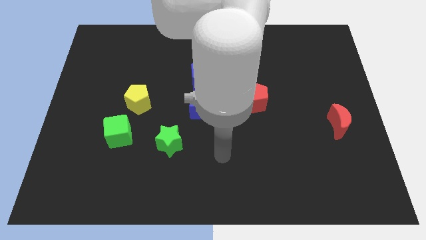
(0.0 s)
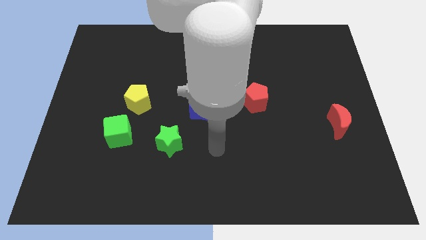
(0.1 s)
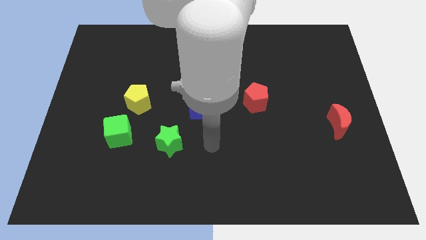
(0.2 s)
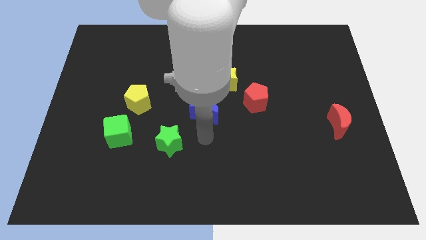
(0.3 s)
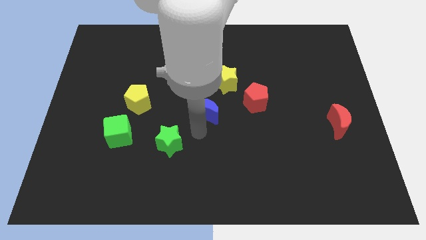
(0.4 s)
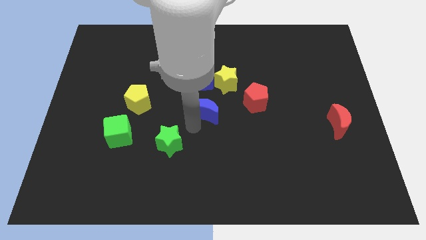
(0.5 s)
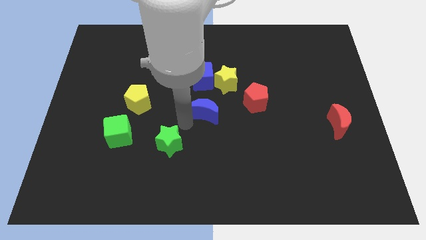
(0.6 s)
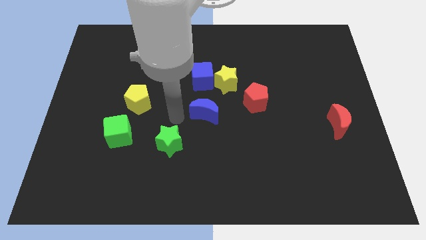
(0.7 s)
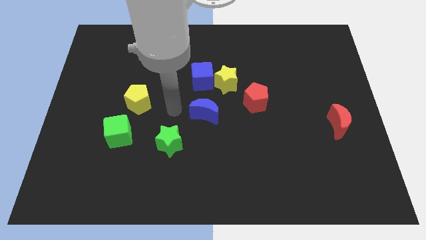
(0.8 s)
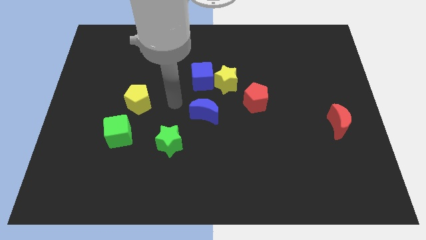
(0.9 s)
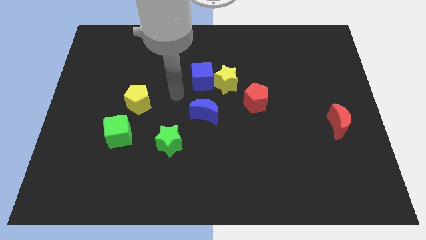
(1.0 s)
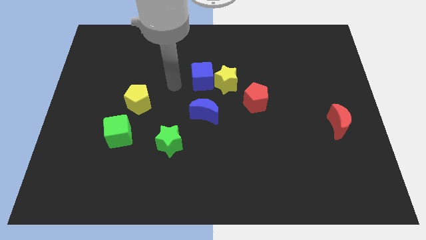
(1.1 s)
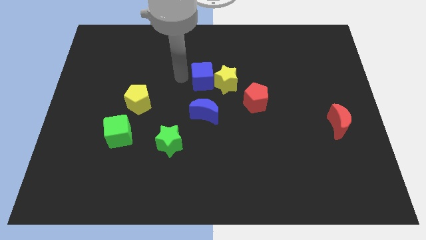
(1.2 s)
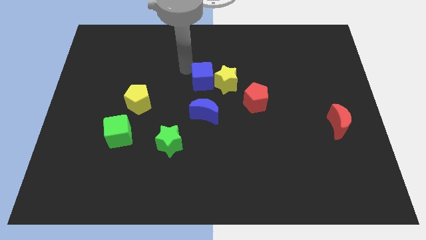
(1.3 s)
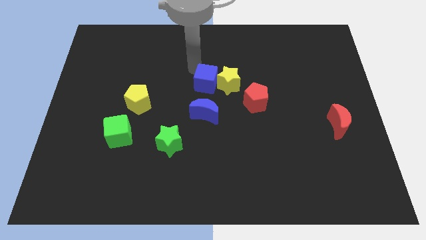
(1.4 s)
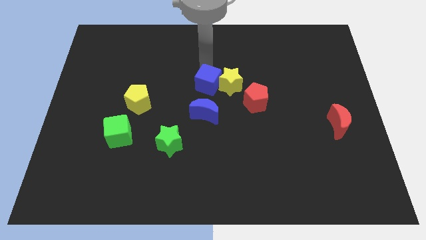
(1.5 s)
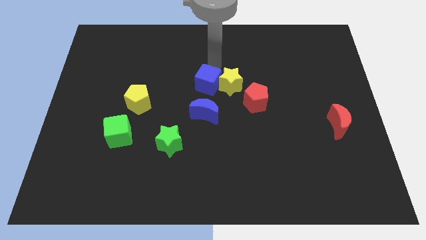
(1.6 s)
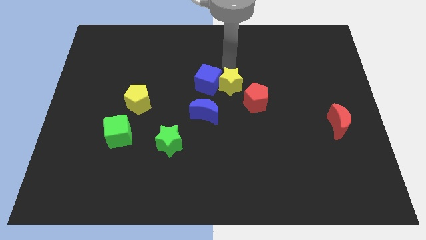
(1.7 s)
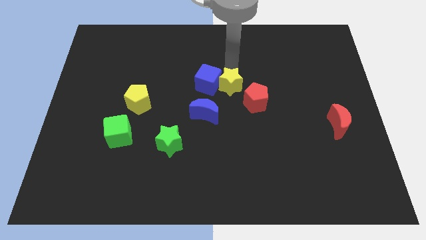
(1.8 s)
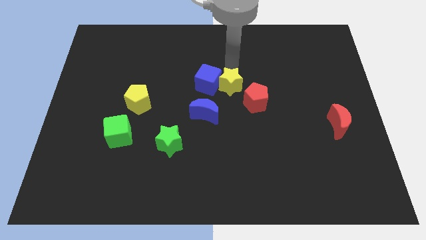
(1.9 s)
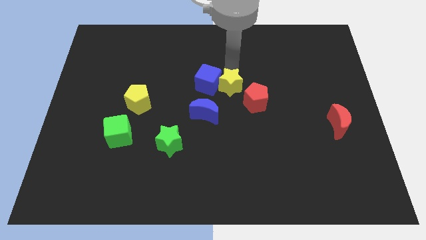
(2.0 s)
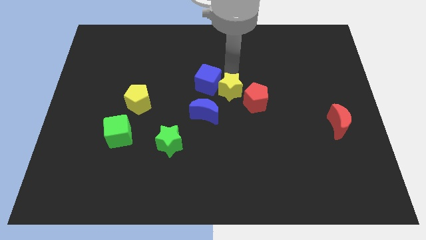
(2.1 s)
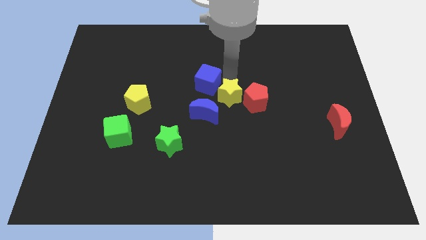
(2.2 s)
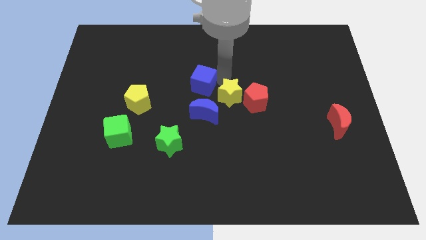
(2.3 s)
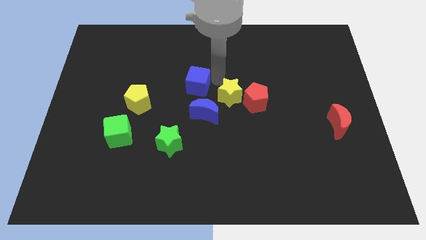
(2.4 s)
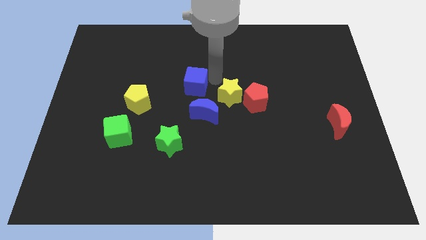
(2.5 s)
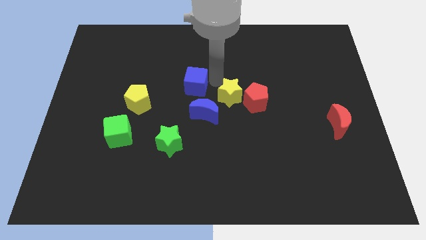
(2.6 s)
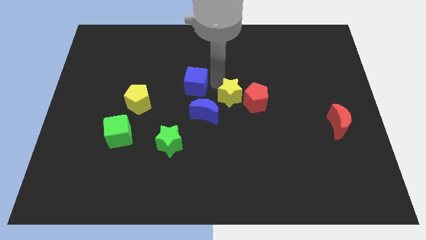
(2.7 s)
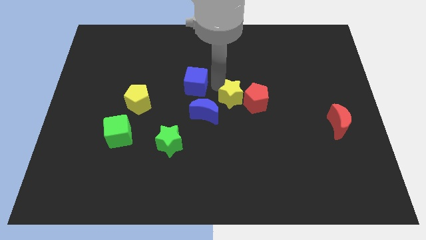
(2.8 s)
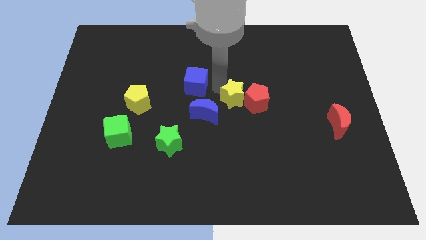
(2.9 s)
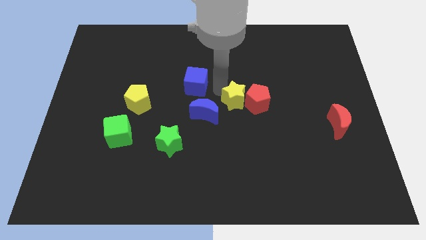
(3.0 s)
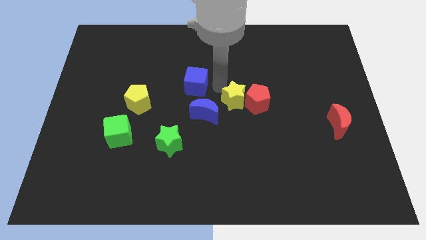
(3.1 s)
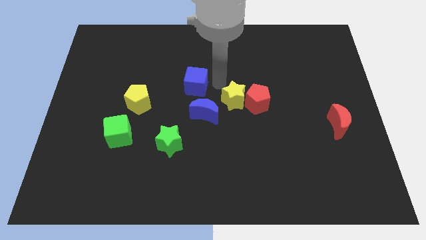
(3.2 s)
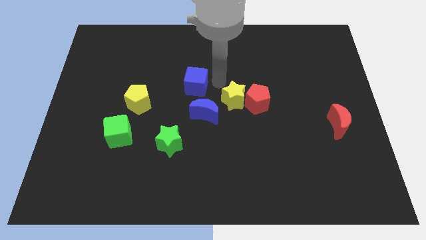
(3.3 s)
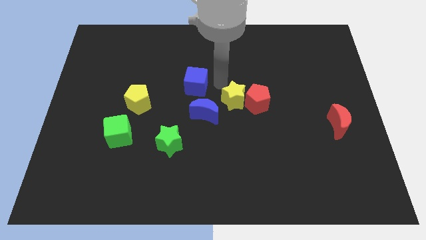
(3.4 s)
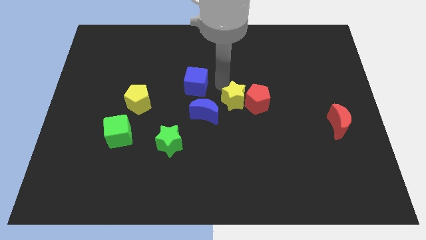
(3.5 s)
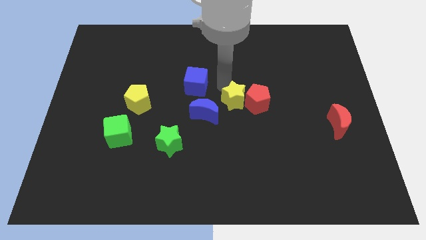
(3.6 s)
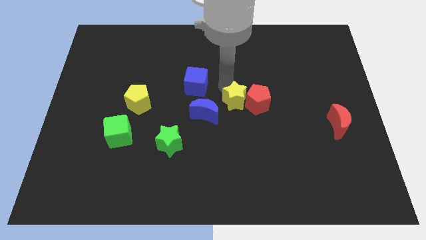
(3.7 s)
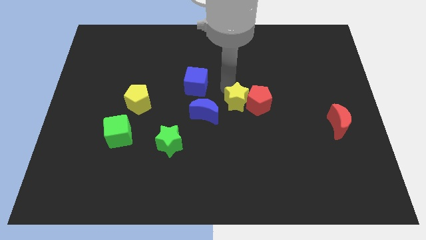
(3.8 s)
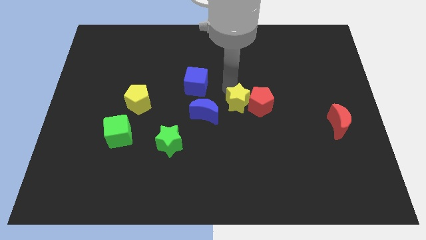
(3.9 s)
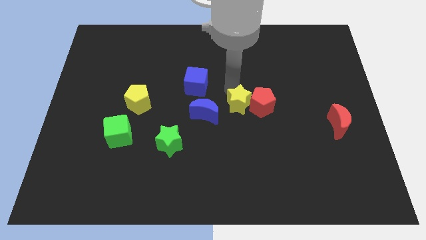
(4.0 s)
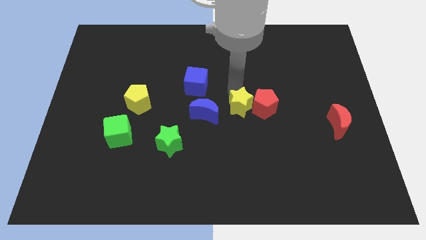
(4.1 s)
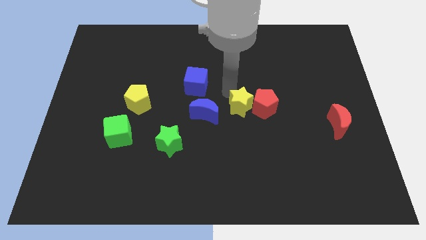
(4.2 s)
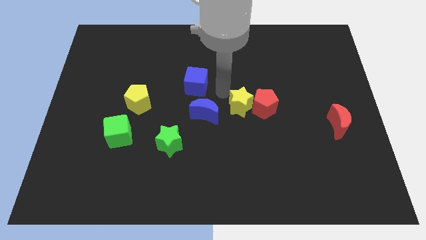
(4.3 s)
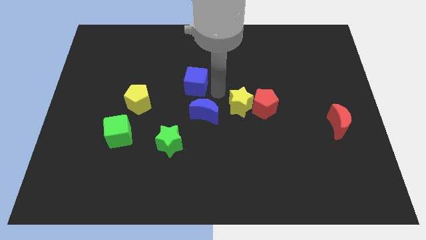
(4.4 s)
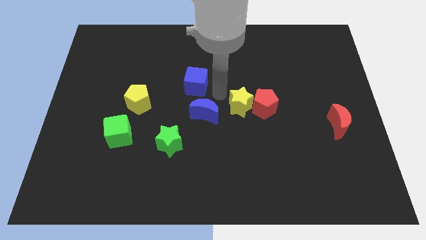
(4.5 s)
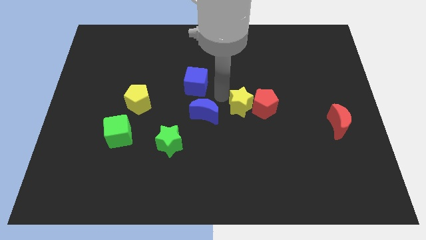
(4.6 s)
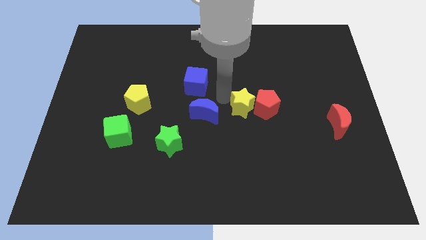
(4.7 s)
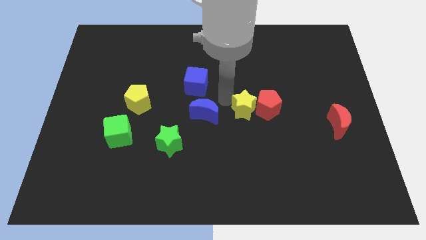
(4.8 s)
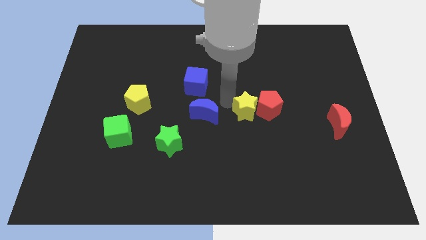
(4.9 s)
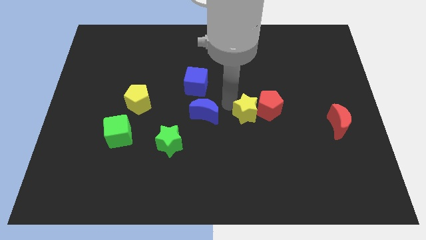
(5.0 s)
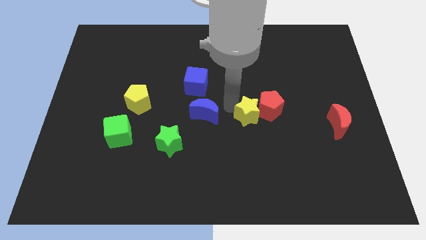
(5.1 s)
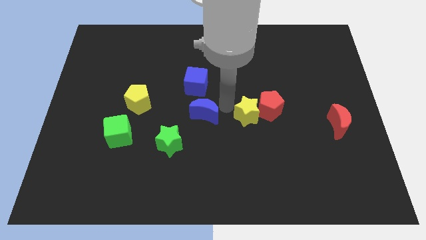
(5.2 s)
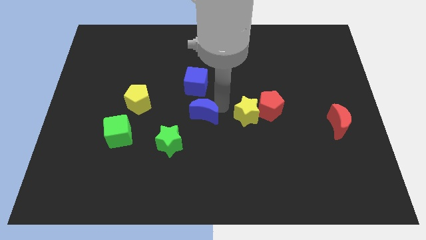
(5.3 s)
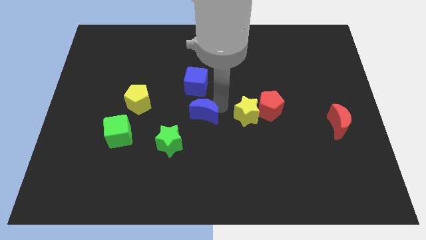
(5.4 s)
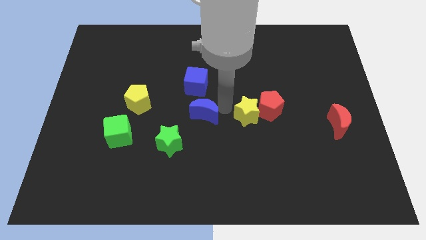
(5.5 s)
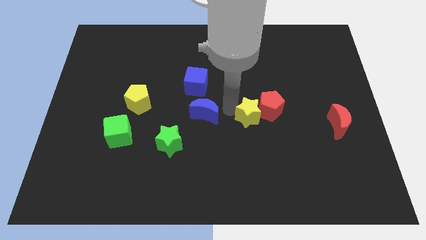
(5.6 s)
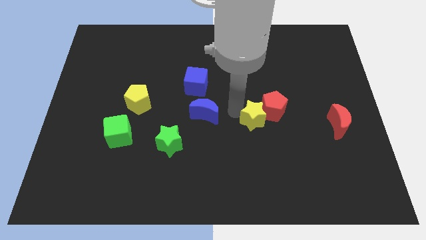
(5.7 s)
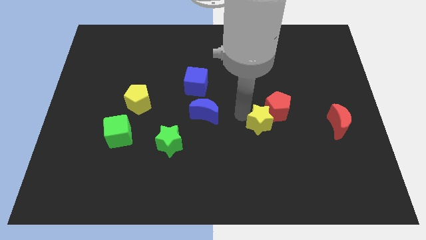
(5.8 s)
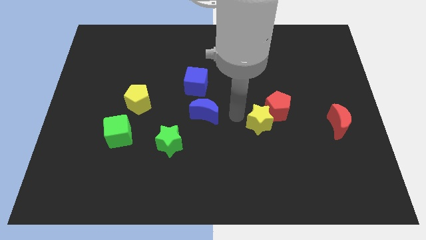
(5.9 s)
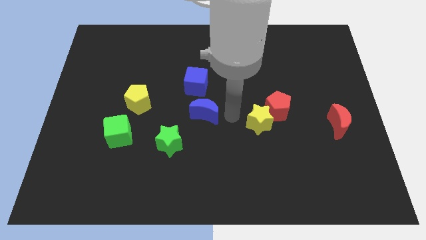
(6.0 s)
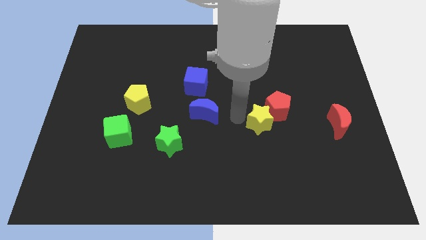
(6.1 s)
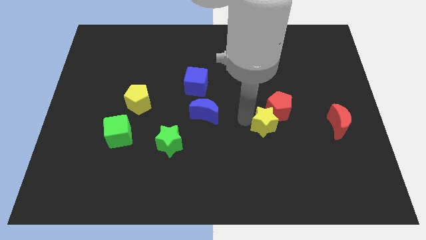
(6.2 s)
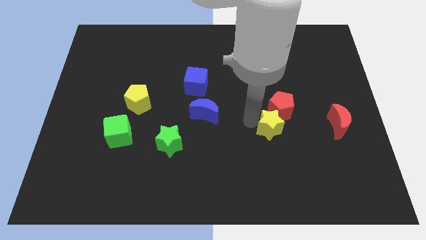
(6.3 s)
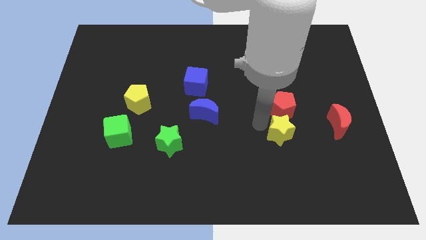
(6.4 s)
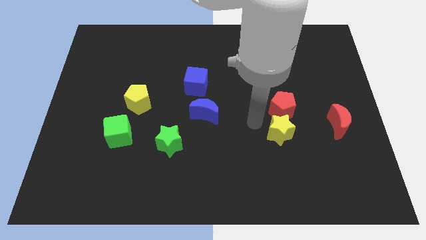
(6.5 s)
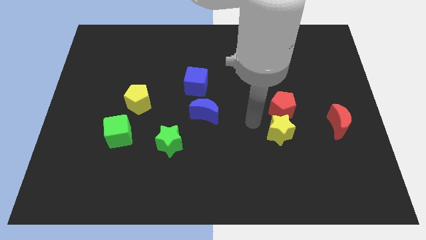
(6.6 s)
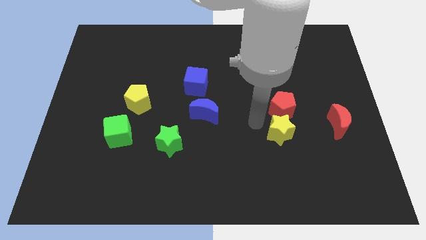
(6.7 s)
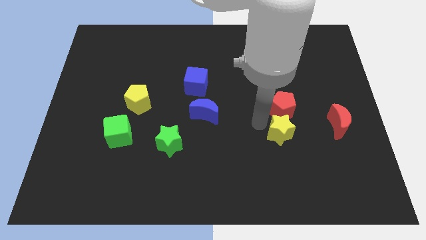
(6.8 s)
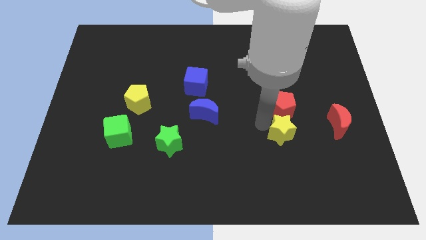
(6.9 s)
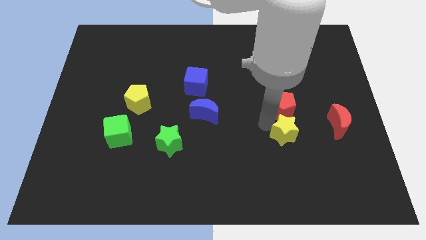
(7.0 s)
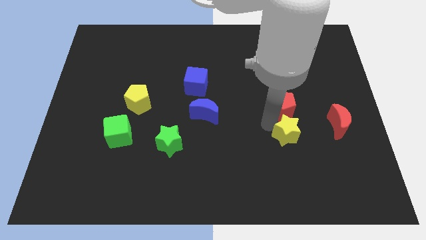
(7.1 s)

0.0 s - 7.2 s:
slide the yellow star down and then right

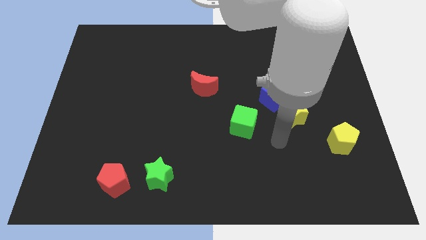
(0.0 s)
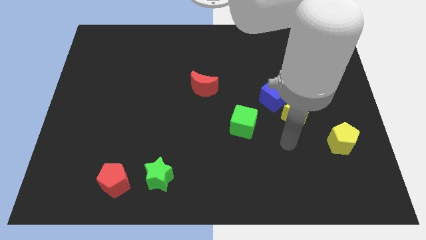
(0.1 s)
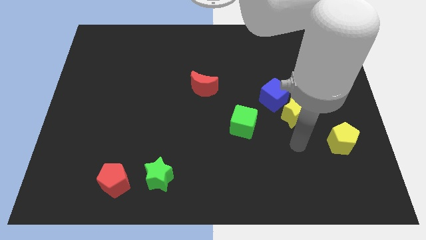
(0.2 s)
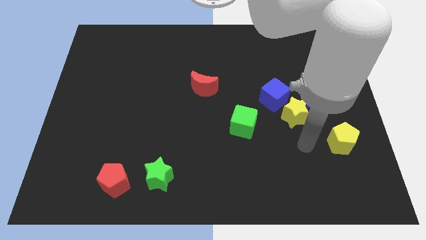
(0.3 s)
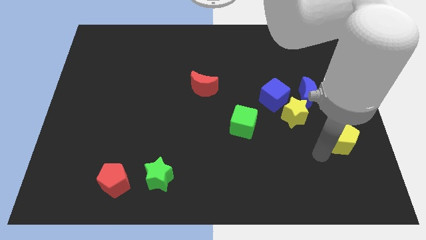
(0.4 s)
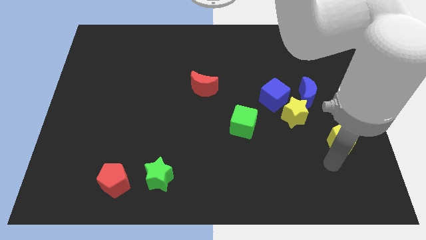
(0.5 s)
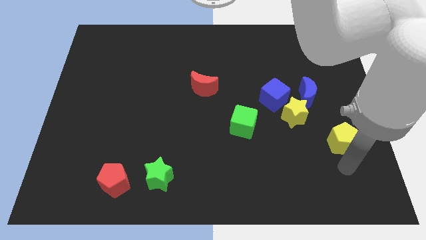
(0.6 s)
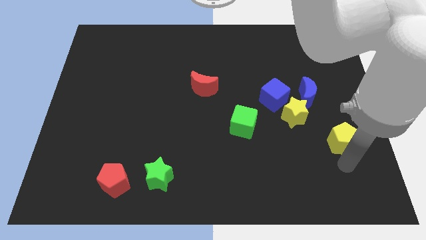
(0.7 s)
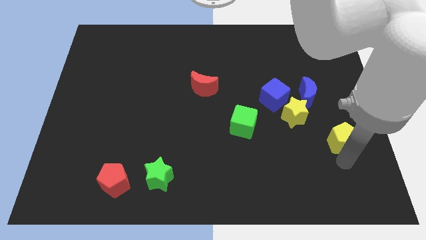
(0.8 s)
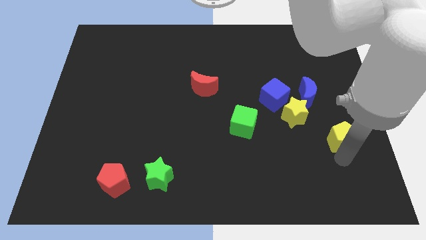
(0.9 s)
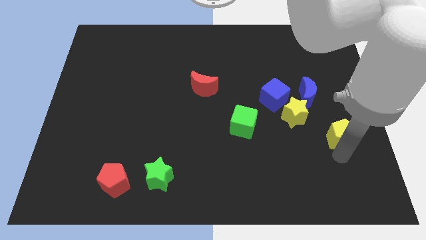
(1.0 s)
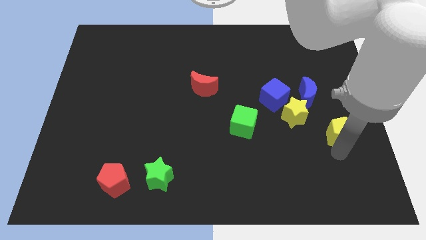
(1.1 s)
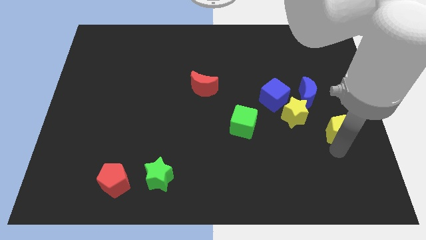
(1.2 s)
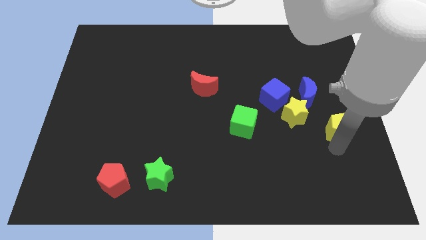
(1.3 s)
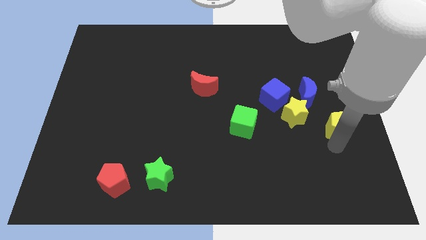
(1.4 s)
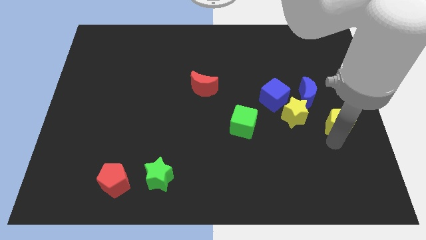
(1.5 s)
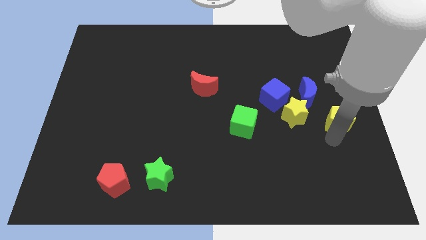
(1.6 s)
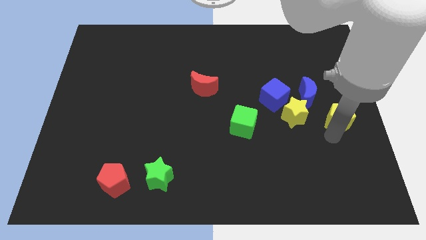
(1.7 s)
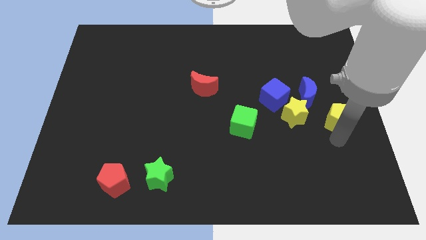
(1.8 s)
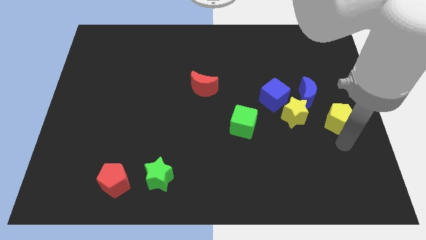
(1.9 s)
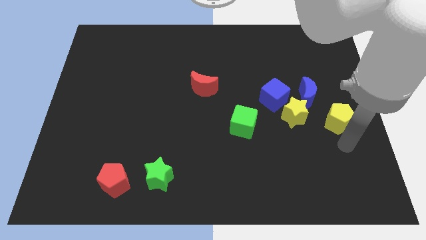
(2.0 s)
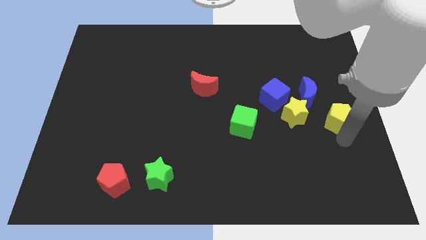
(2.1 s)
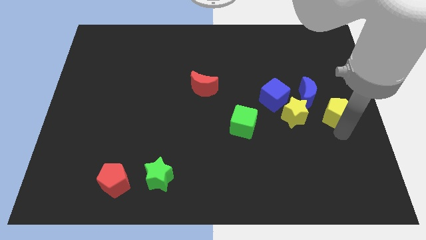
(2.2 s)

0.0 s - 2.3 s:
slightly move the yellow pentagon up
